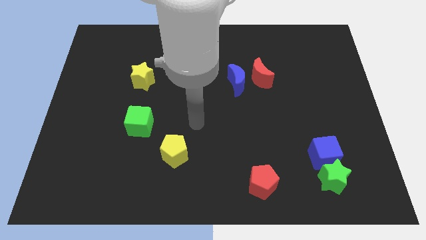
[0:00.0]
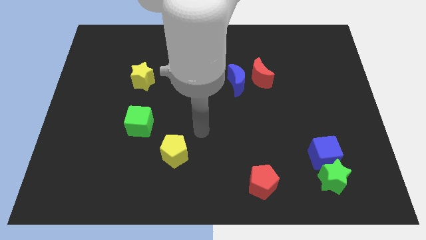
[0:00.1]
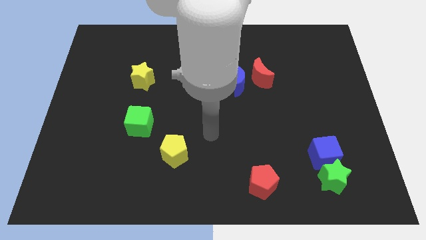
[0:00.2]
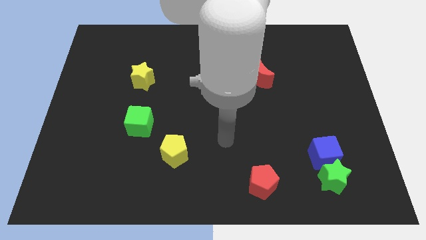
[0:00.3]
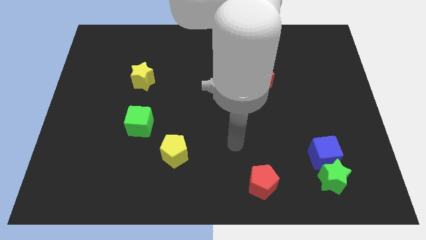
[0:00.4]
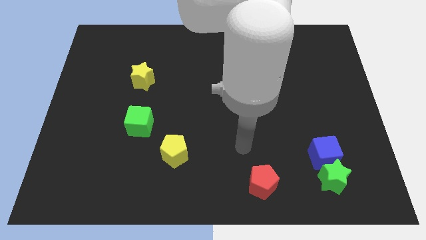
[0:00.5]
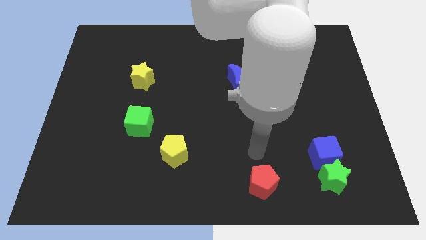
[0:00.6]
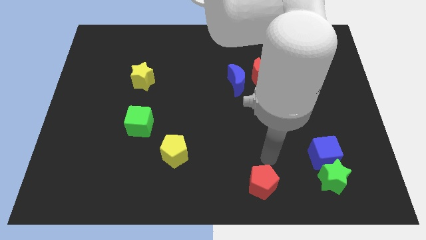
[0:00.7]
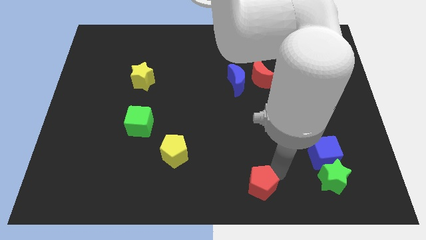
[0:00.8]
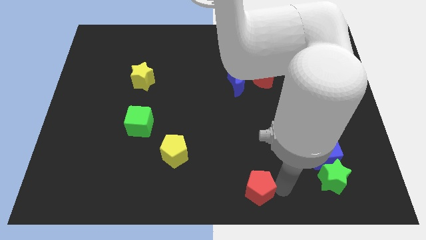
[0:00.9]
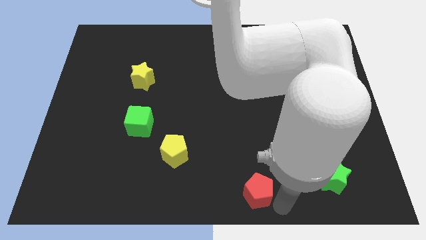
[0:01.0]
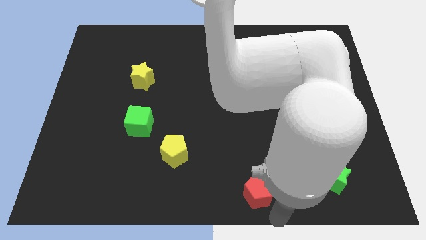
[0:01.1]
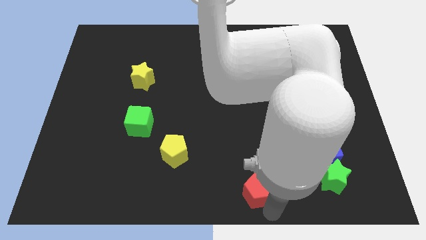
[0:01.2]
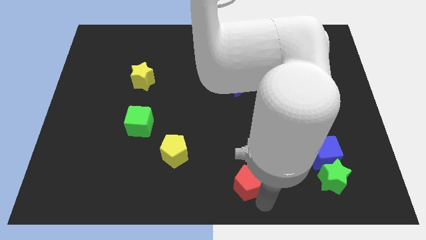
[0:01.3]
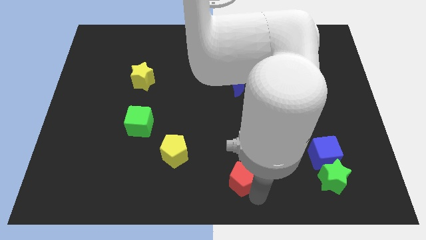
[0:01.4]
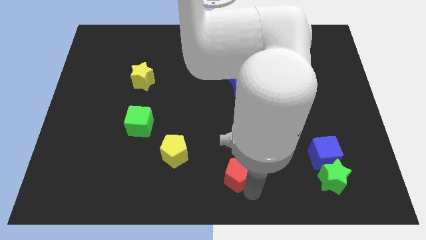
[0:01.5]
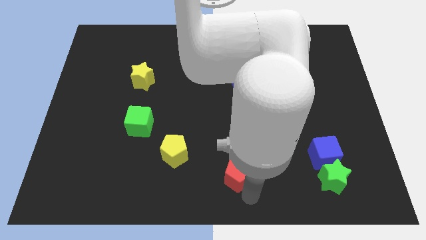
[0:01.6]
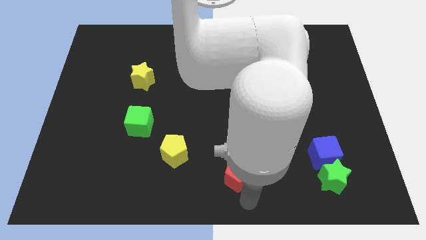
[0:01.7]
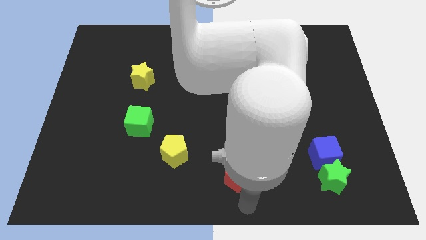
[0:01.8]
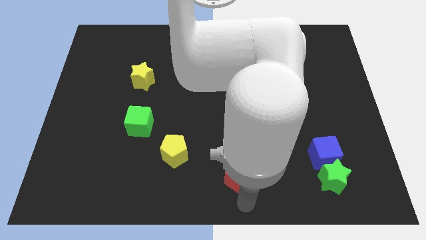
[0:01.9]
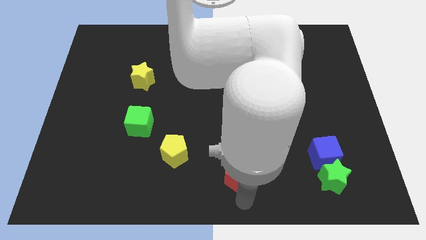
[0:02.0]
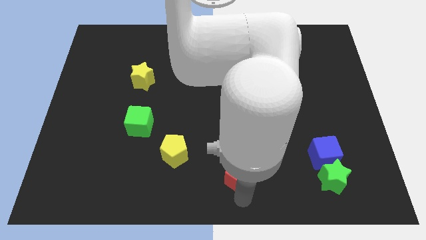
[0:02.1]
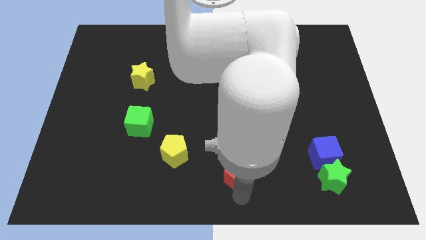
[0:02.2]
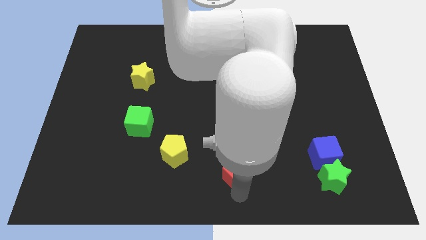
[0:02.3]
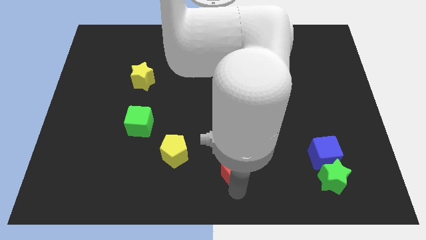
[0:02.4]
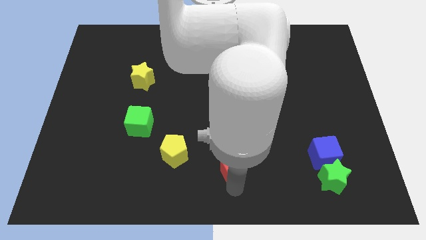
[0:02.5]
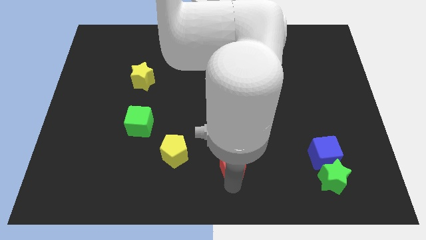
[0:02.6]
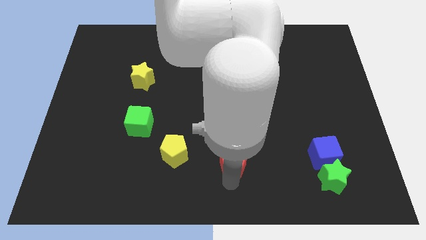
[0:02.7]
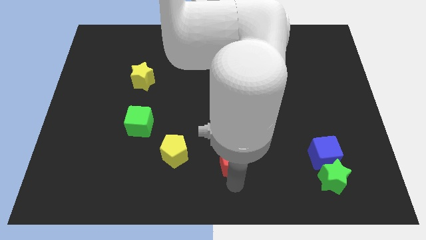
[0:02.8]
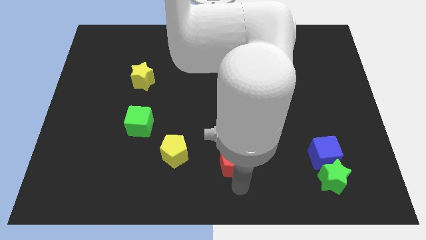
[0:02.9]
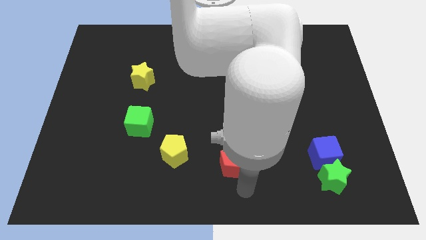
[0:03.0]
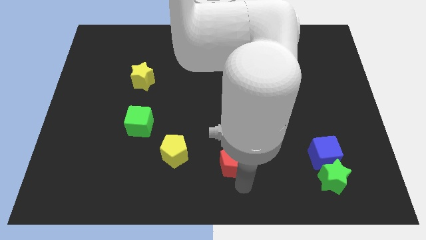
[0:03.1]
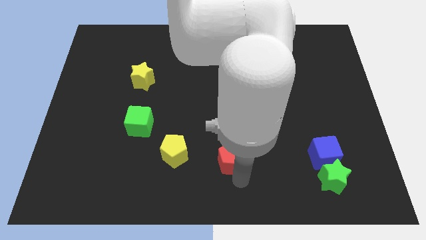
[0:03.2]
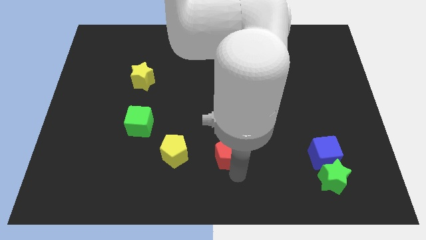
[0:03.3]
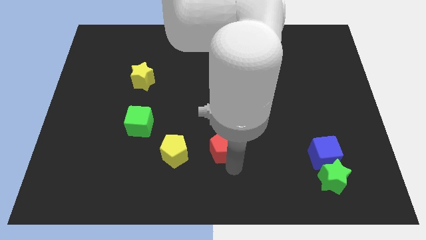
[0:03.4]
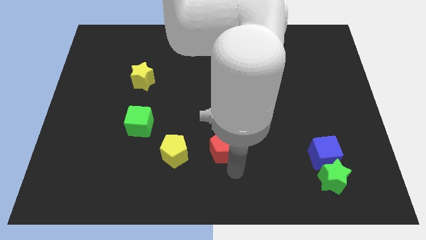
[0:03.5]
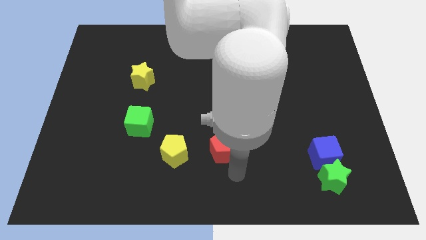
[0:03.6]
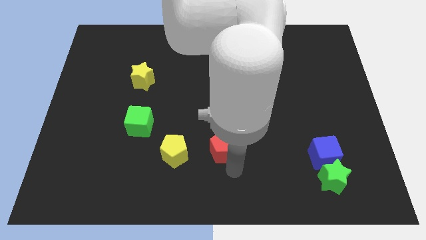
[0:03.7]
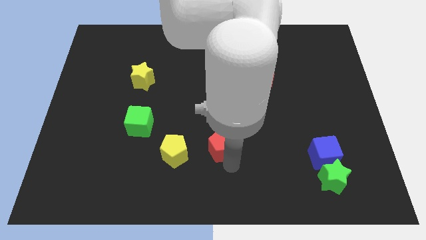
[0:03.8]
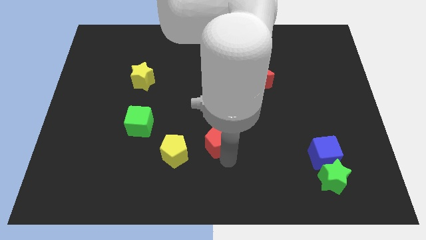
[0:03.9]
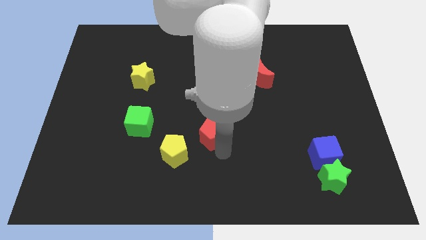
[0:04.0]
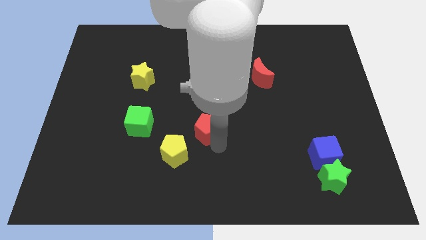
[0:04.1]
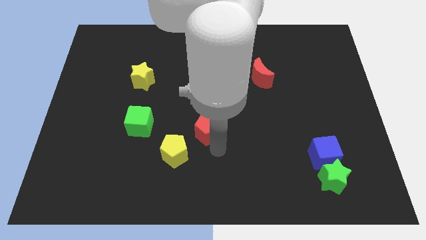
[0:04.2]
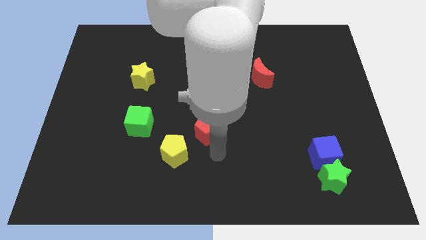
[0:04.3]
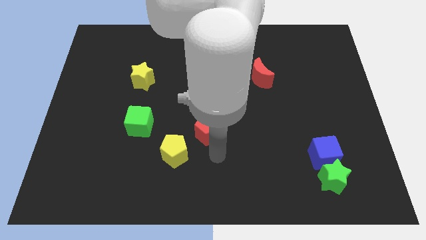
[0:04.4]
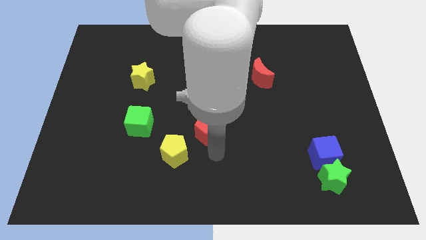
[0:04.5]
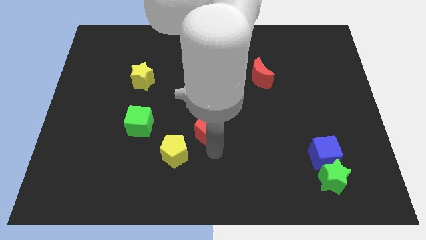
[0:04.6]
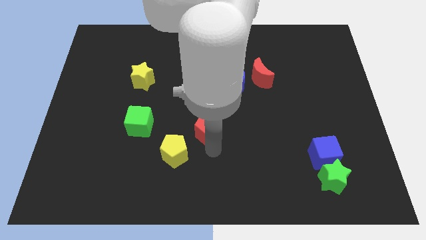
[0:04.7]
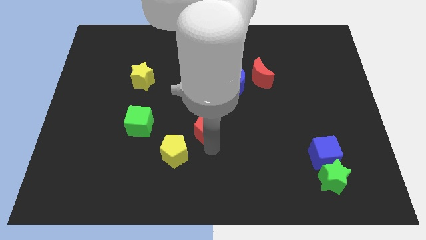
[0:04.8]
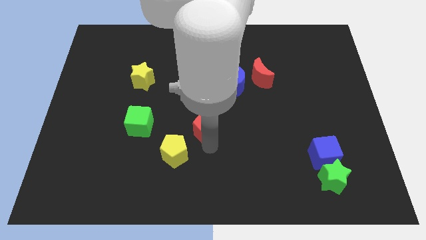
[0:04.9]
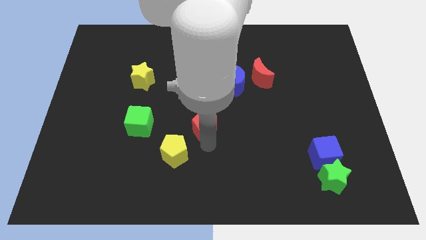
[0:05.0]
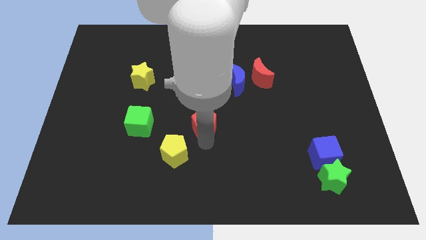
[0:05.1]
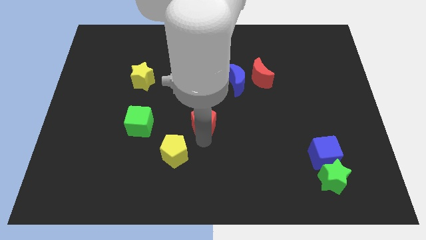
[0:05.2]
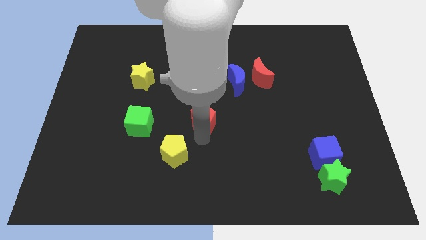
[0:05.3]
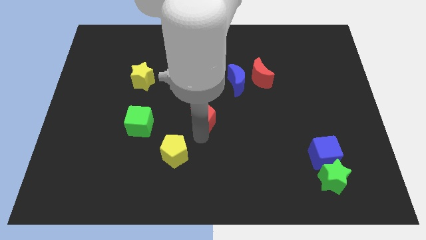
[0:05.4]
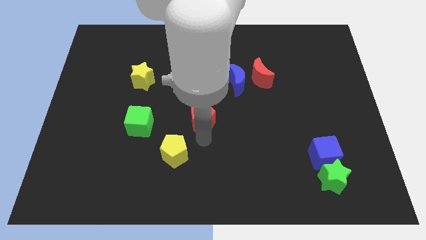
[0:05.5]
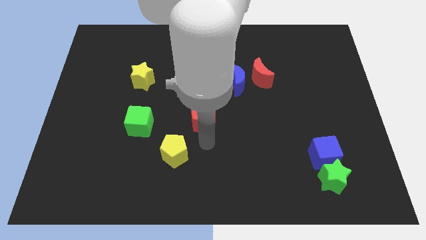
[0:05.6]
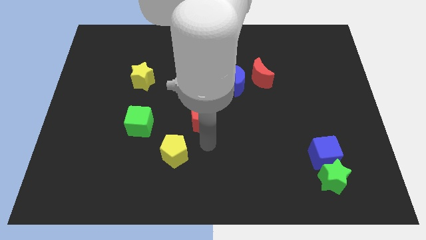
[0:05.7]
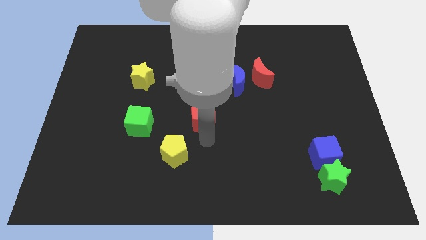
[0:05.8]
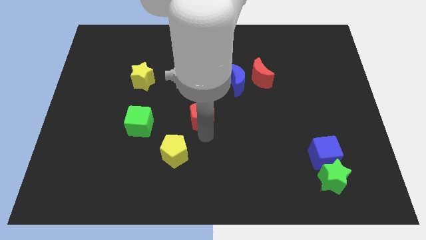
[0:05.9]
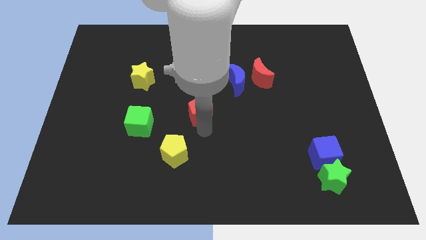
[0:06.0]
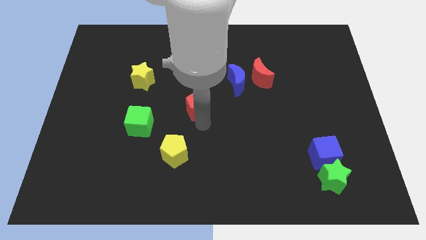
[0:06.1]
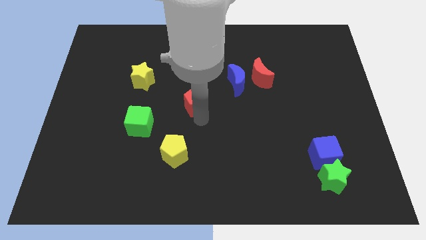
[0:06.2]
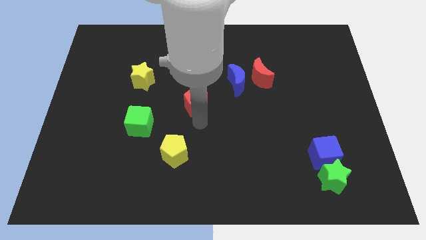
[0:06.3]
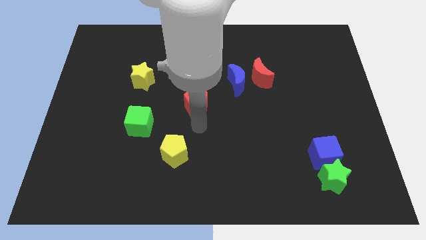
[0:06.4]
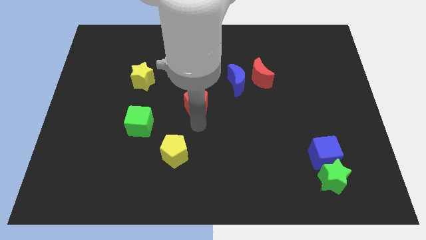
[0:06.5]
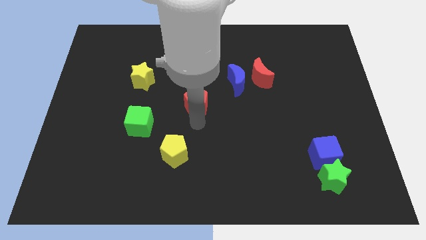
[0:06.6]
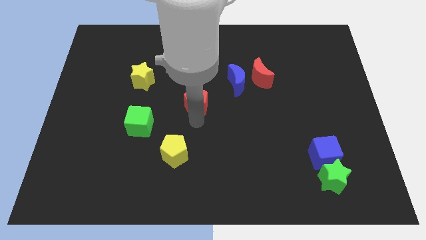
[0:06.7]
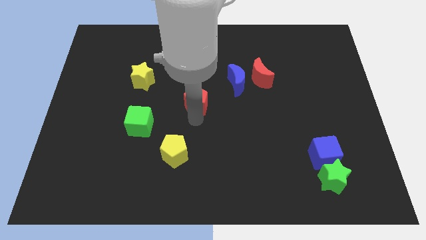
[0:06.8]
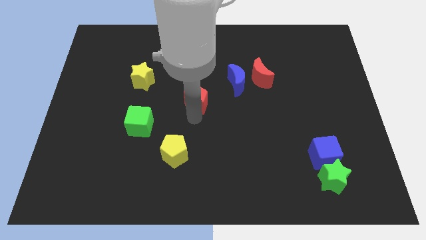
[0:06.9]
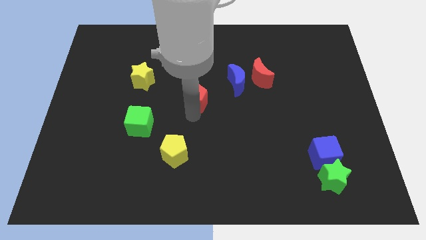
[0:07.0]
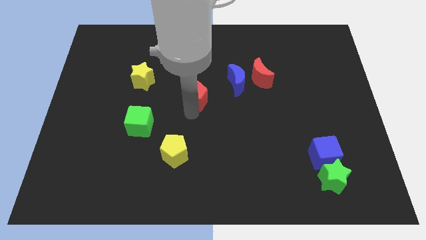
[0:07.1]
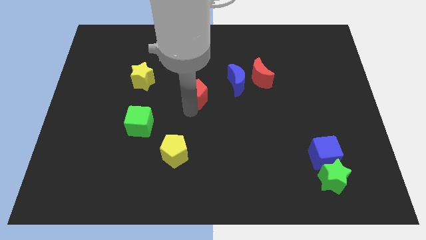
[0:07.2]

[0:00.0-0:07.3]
slide the red pentagon just left of the blue moon
